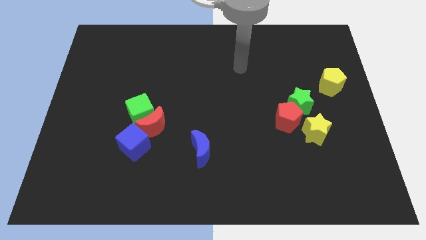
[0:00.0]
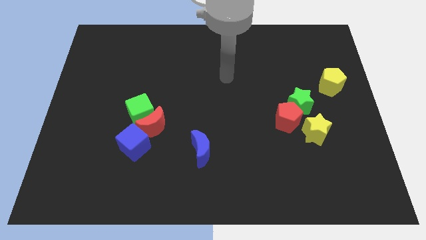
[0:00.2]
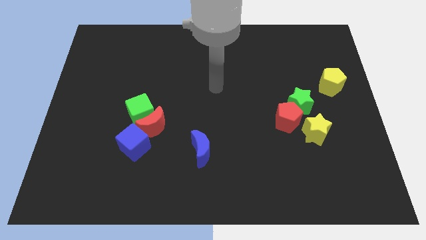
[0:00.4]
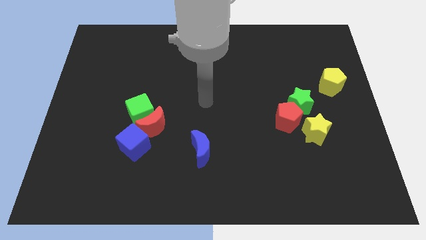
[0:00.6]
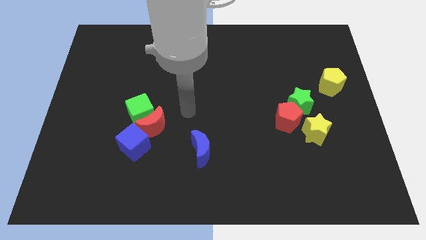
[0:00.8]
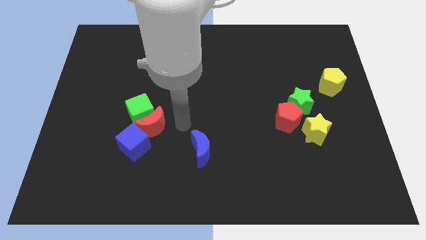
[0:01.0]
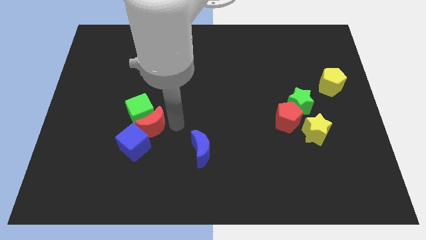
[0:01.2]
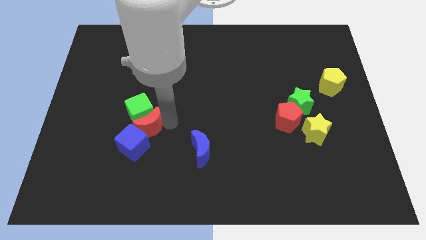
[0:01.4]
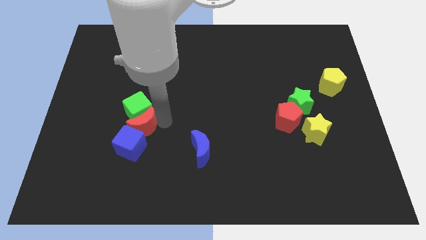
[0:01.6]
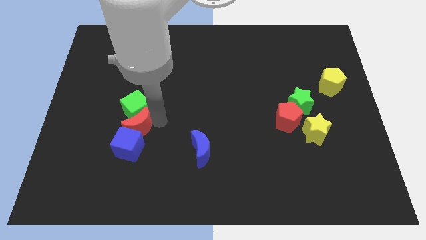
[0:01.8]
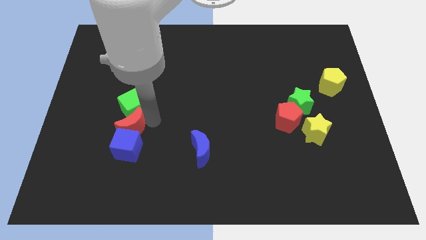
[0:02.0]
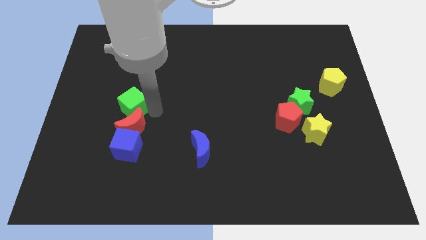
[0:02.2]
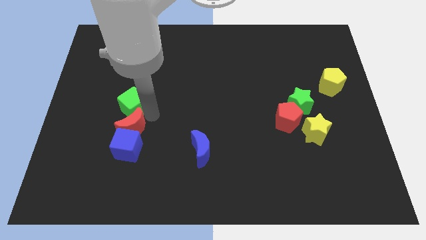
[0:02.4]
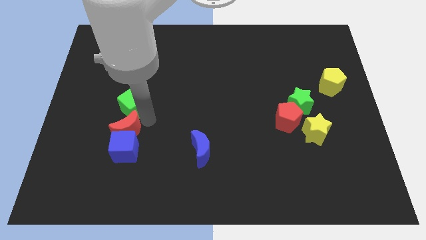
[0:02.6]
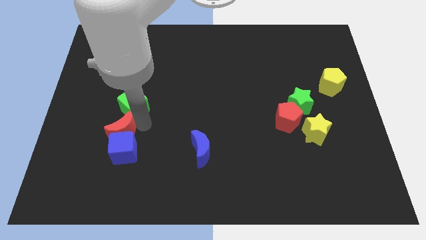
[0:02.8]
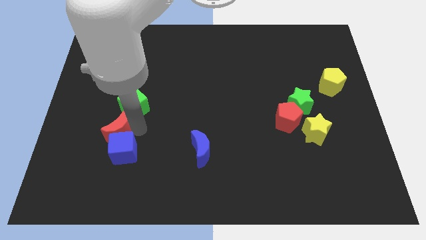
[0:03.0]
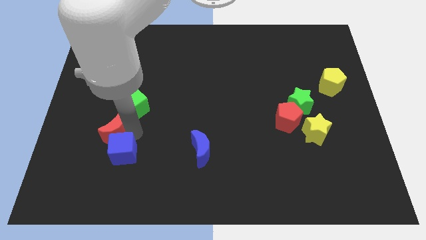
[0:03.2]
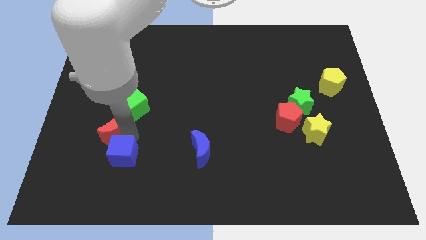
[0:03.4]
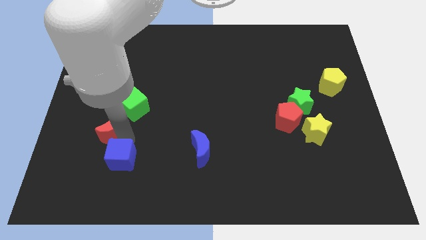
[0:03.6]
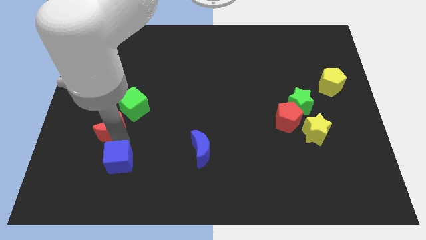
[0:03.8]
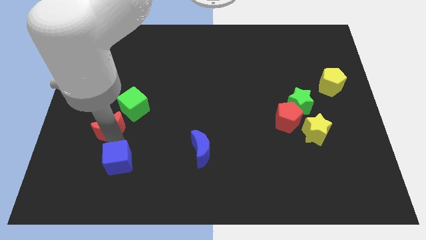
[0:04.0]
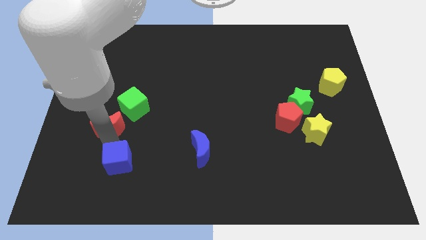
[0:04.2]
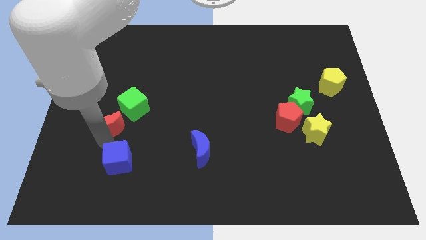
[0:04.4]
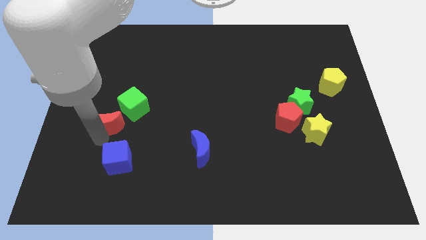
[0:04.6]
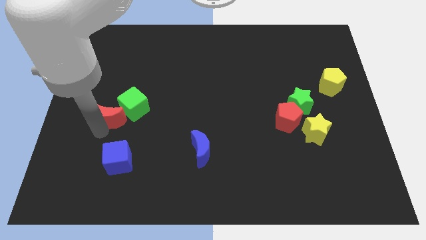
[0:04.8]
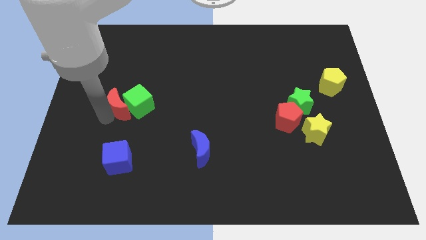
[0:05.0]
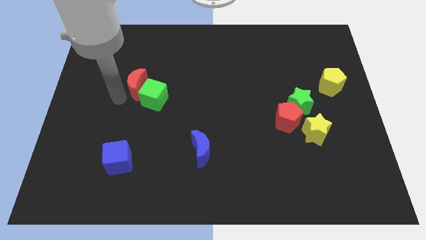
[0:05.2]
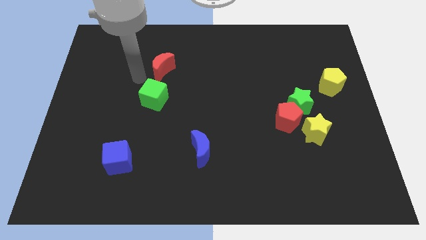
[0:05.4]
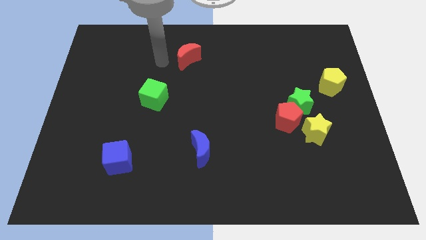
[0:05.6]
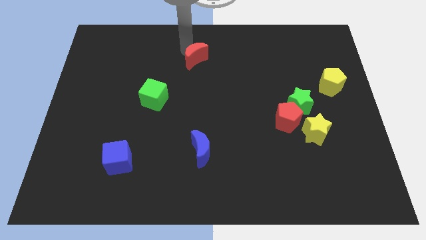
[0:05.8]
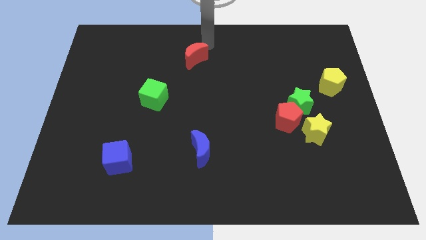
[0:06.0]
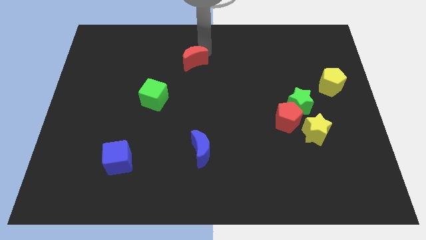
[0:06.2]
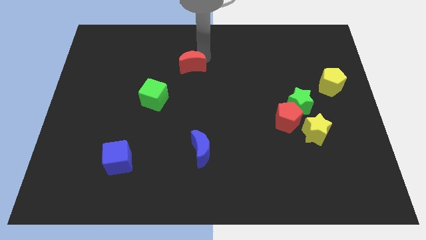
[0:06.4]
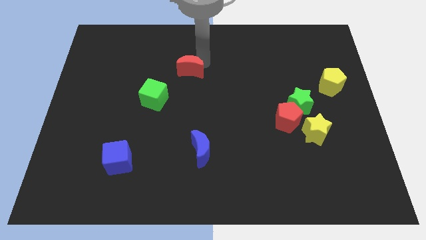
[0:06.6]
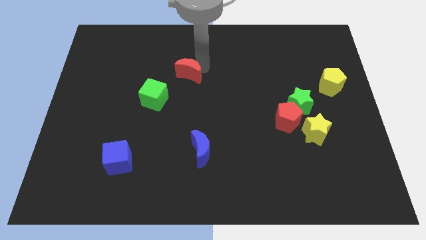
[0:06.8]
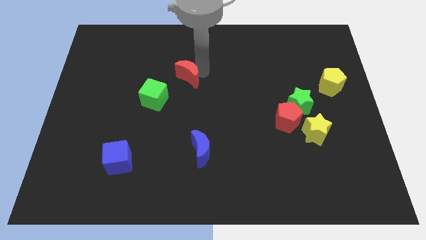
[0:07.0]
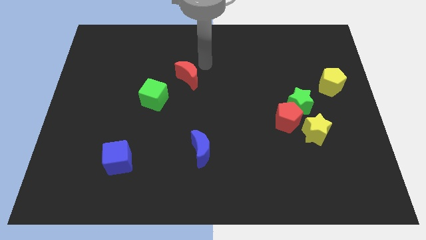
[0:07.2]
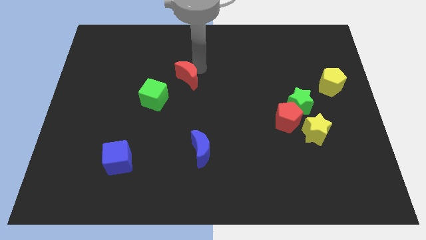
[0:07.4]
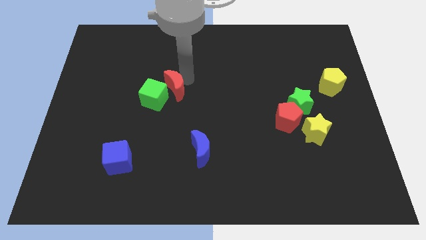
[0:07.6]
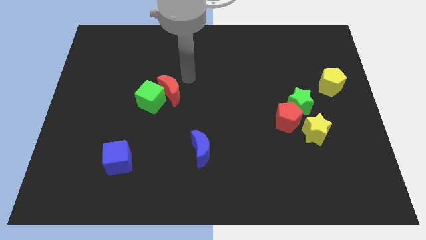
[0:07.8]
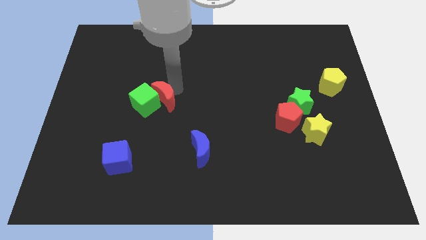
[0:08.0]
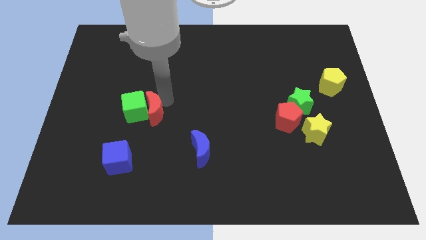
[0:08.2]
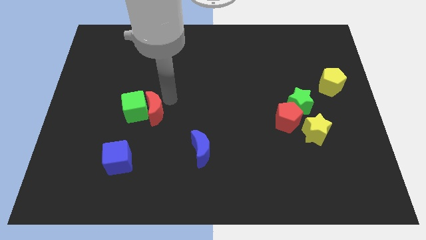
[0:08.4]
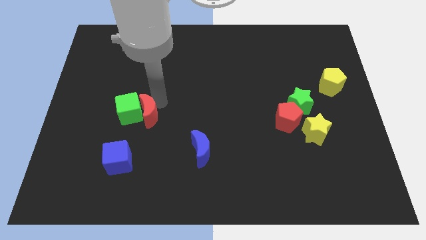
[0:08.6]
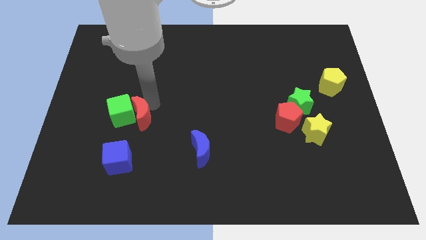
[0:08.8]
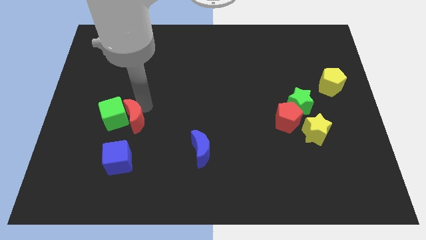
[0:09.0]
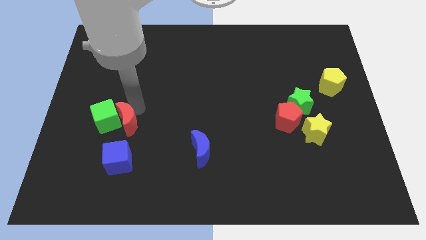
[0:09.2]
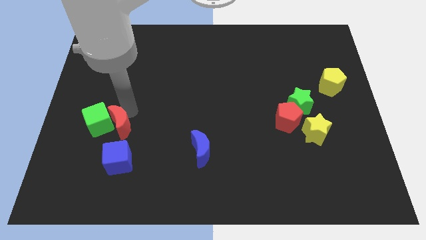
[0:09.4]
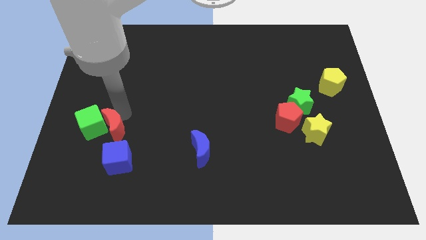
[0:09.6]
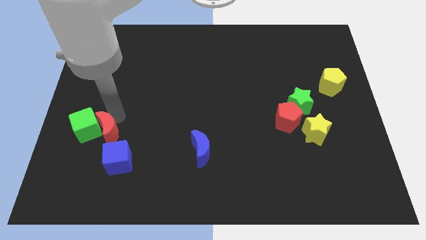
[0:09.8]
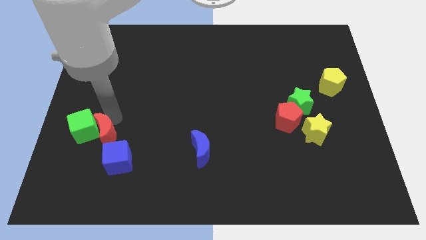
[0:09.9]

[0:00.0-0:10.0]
push the red moon a bit downwards and left diagonally

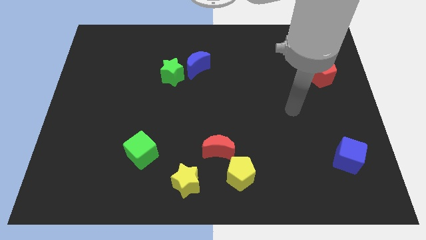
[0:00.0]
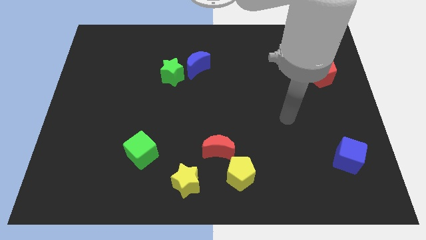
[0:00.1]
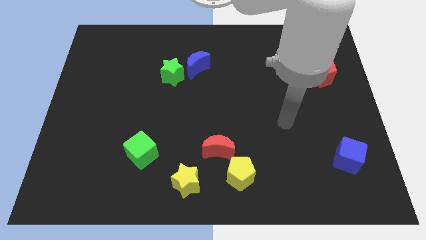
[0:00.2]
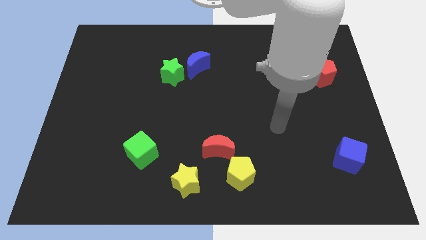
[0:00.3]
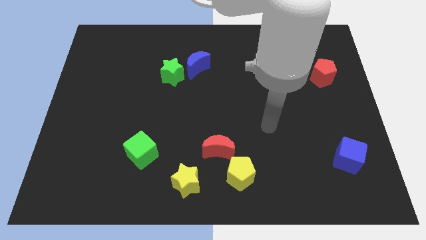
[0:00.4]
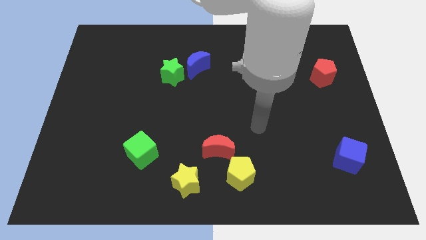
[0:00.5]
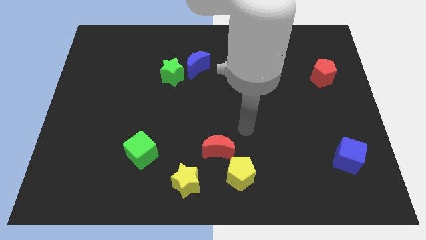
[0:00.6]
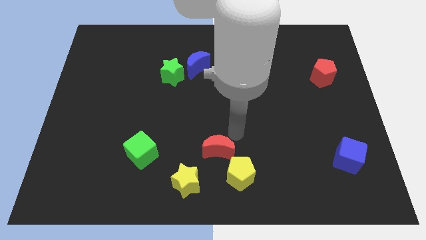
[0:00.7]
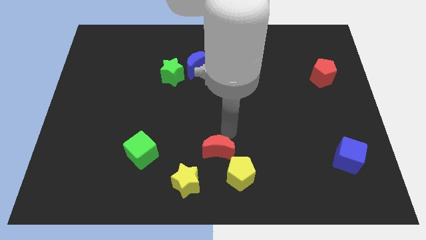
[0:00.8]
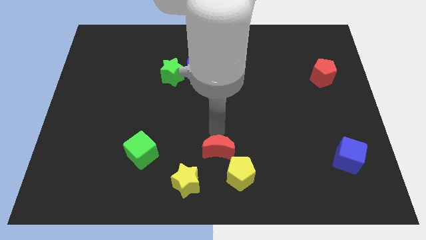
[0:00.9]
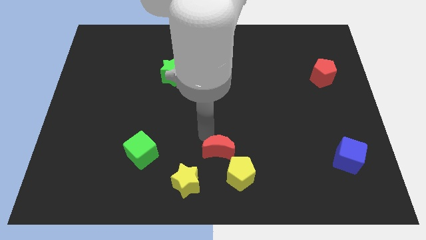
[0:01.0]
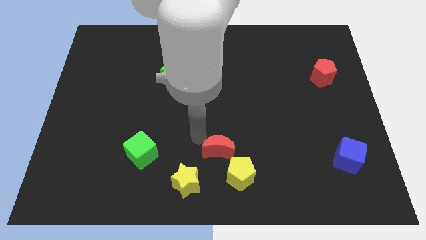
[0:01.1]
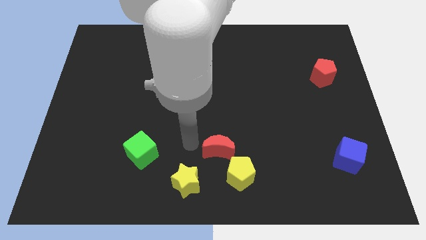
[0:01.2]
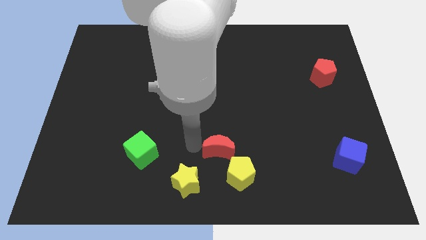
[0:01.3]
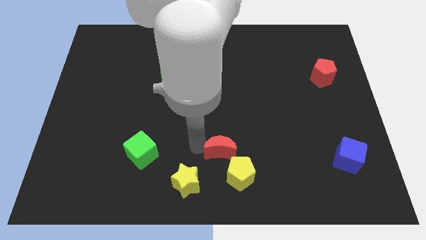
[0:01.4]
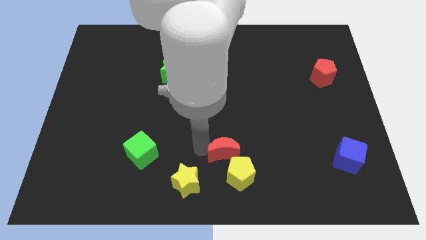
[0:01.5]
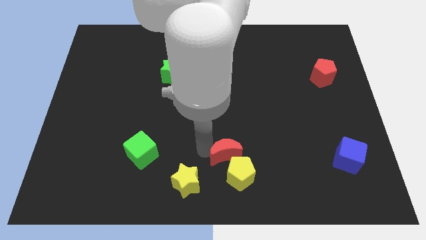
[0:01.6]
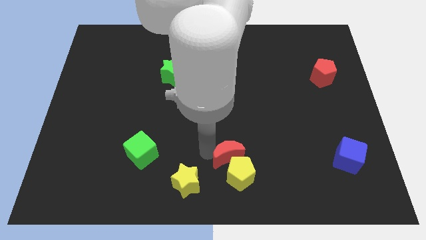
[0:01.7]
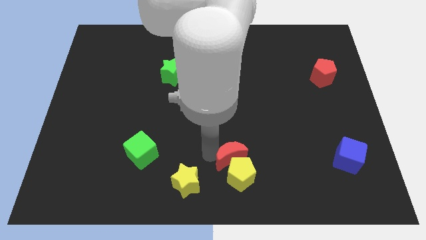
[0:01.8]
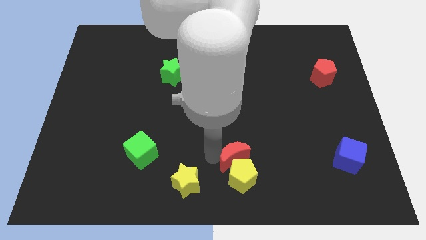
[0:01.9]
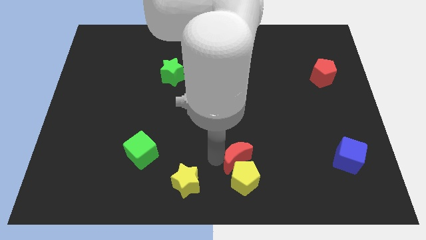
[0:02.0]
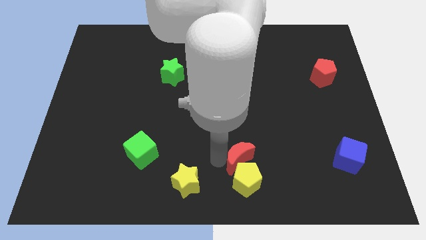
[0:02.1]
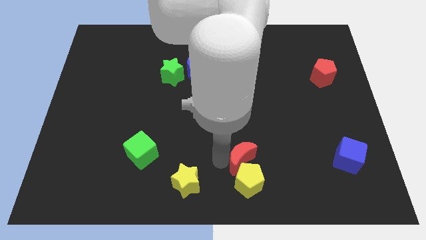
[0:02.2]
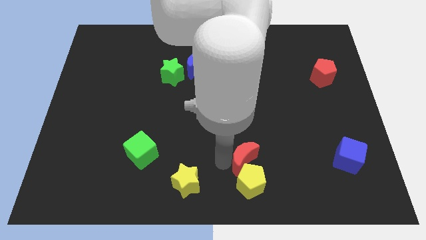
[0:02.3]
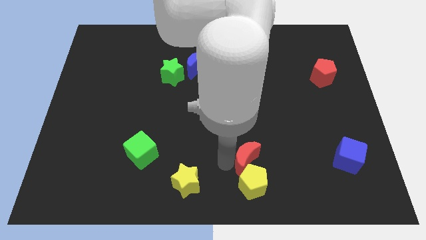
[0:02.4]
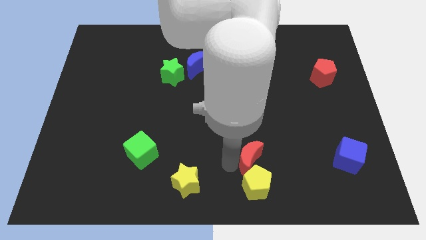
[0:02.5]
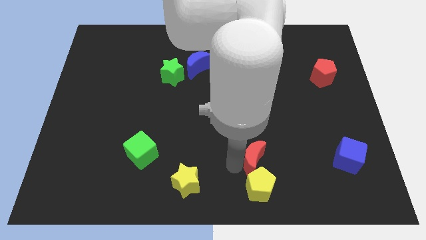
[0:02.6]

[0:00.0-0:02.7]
push the red moon somewhat to the right

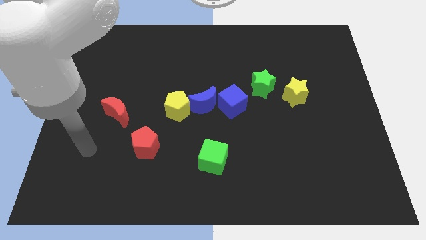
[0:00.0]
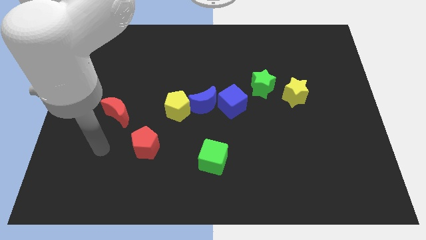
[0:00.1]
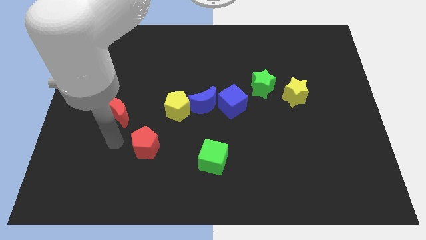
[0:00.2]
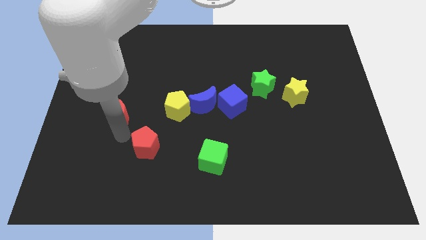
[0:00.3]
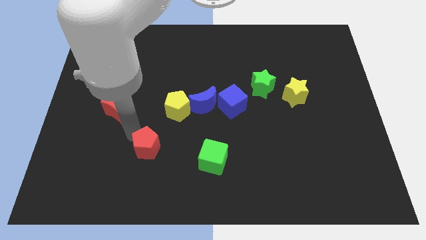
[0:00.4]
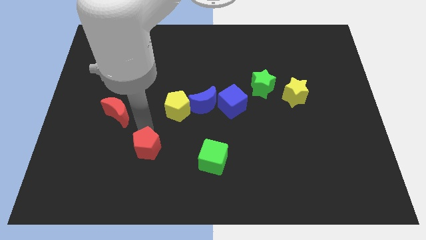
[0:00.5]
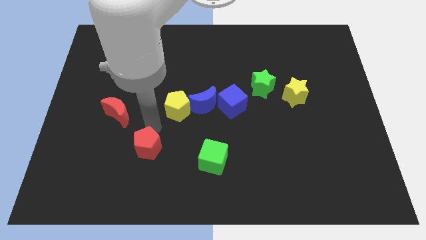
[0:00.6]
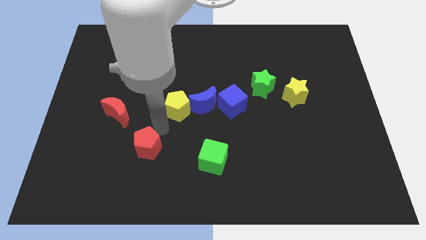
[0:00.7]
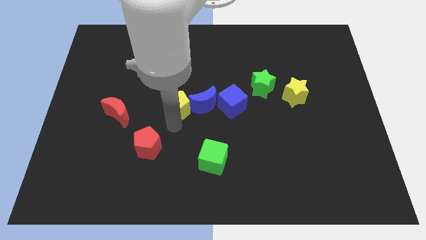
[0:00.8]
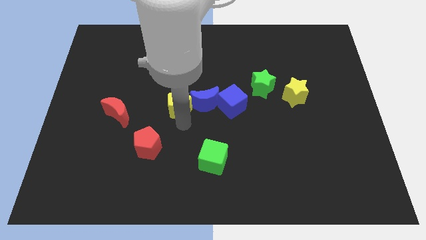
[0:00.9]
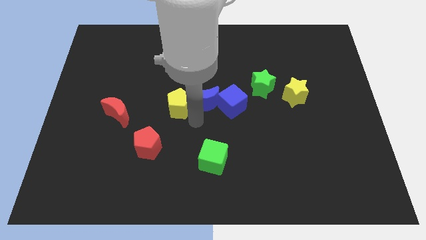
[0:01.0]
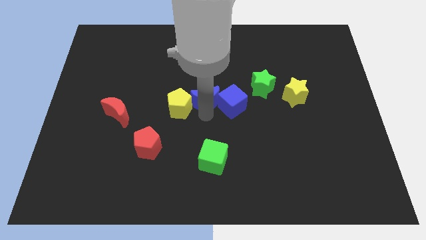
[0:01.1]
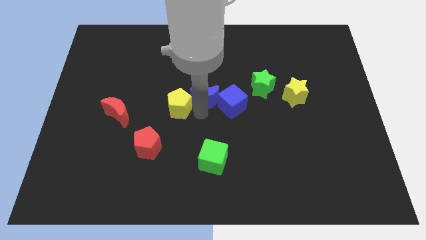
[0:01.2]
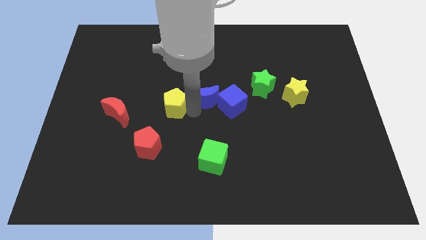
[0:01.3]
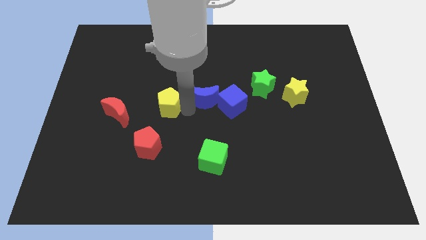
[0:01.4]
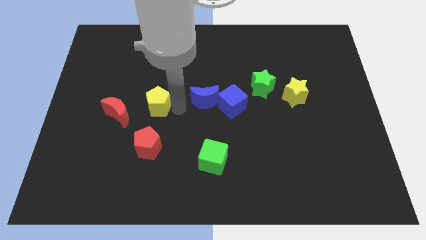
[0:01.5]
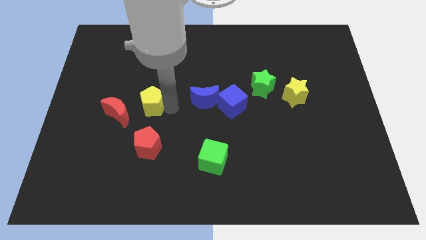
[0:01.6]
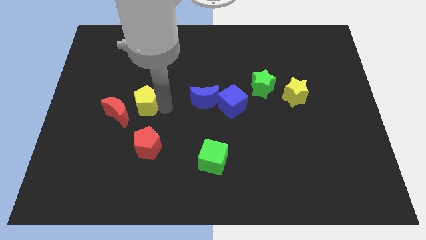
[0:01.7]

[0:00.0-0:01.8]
slightly move the yellow pentagon to the left
